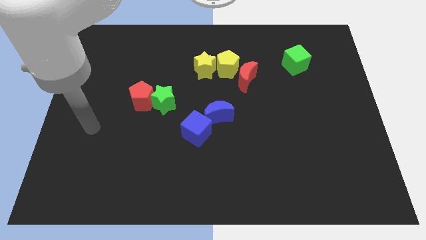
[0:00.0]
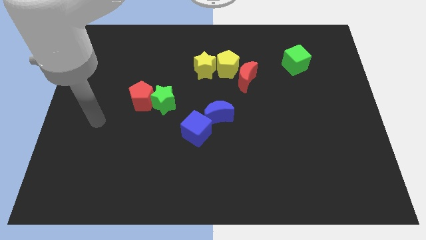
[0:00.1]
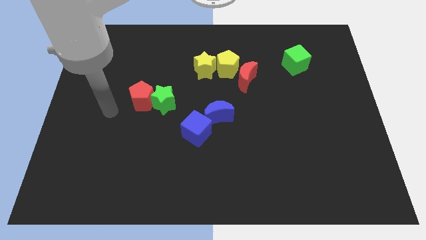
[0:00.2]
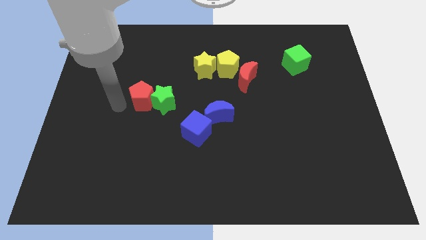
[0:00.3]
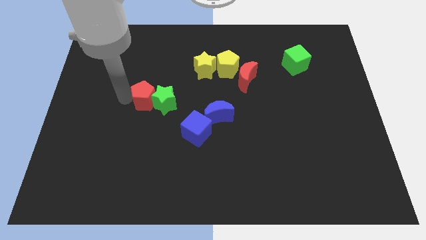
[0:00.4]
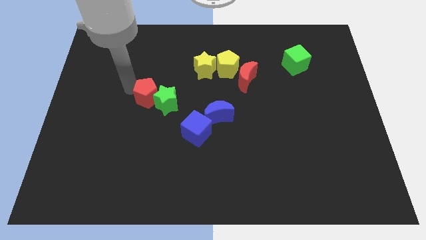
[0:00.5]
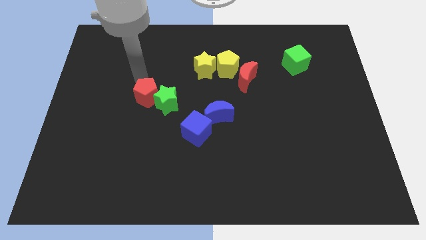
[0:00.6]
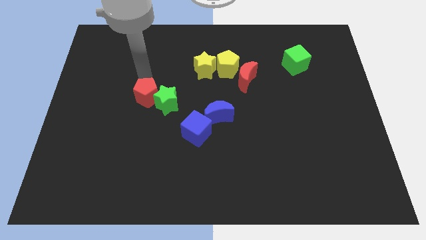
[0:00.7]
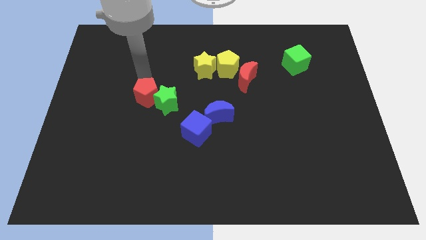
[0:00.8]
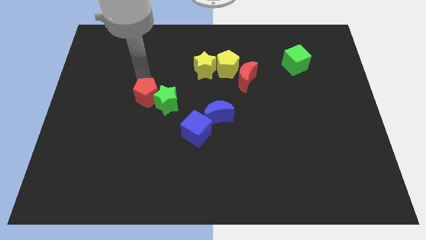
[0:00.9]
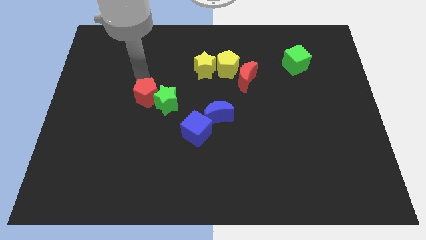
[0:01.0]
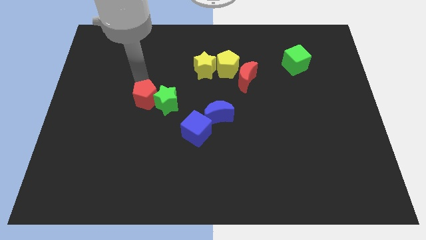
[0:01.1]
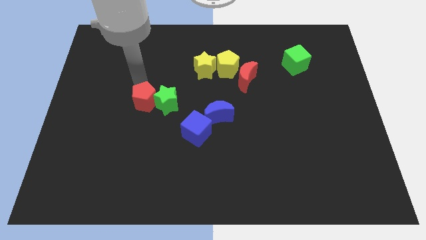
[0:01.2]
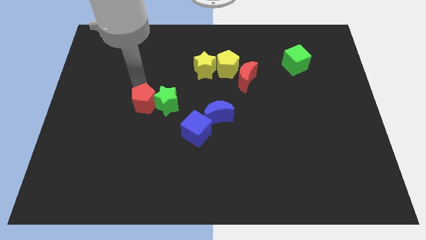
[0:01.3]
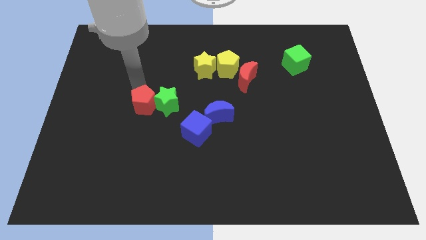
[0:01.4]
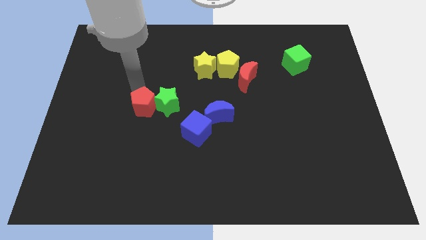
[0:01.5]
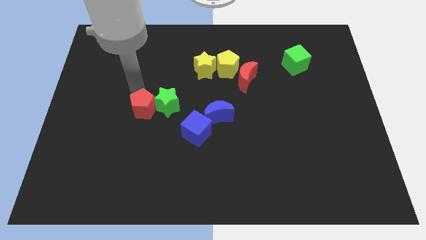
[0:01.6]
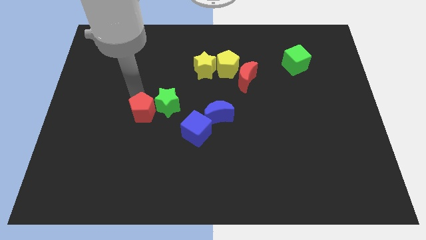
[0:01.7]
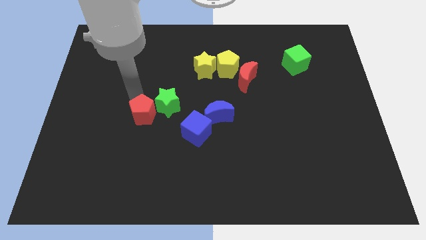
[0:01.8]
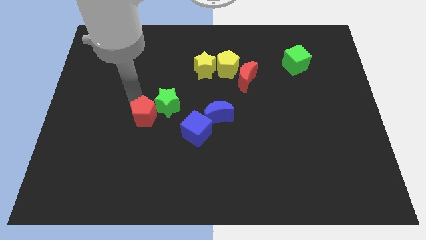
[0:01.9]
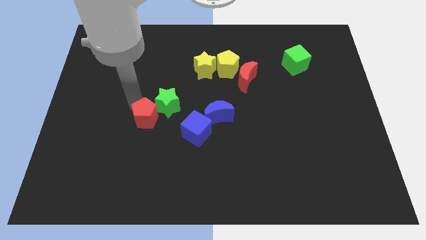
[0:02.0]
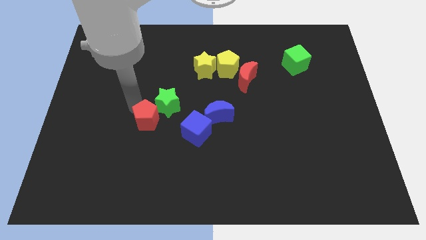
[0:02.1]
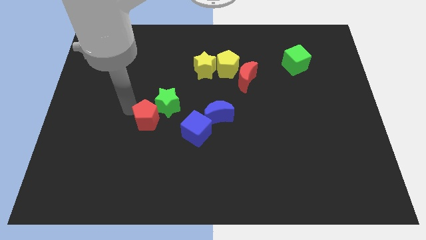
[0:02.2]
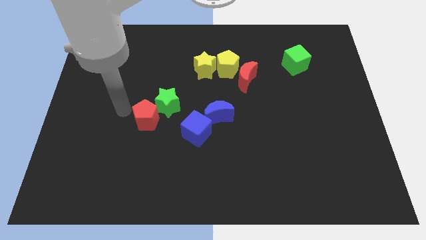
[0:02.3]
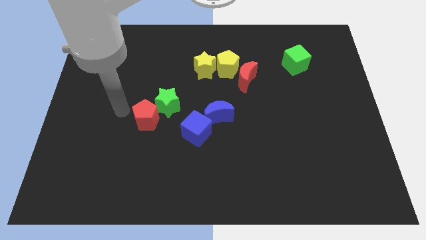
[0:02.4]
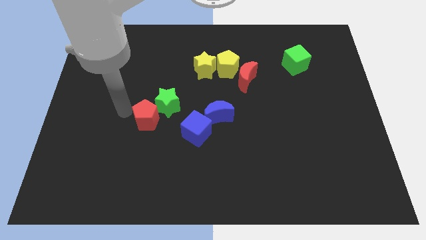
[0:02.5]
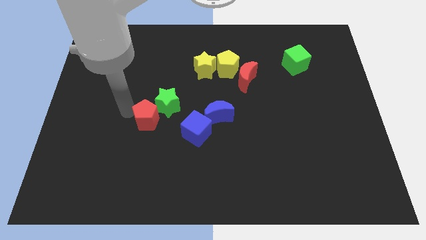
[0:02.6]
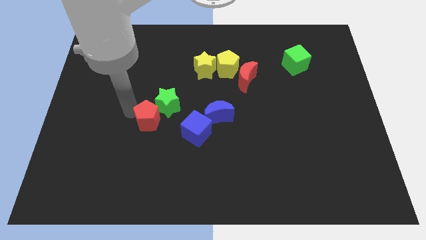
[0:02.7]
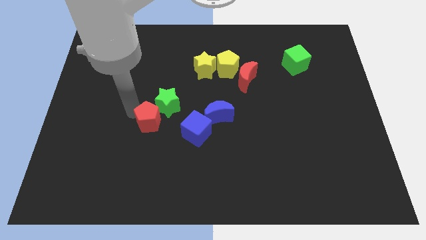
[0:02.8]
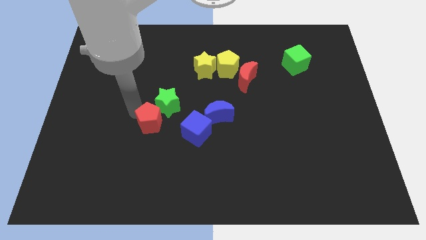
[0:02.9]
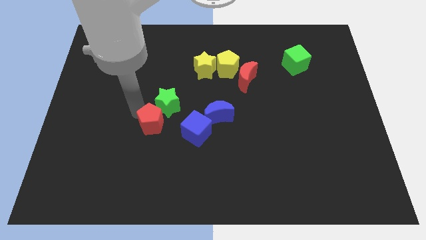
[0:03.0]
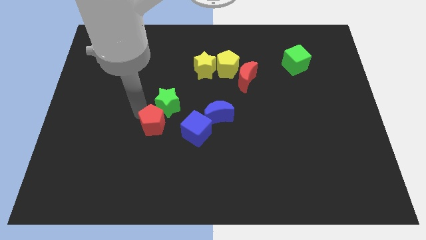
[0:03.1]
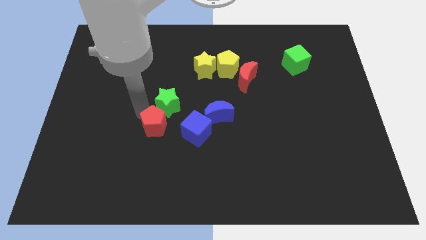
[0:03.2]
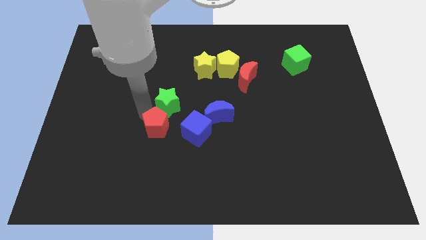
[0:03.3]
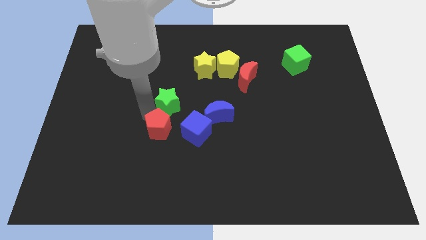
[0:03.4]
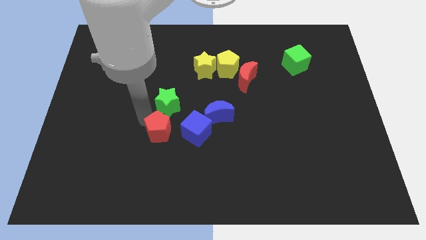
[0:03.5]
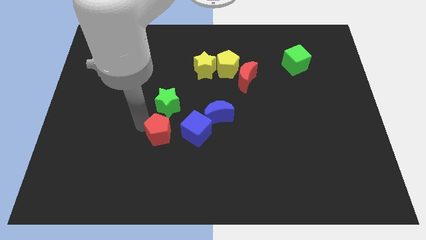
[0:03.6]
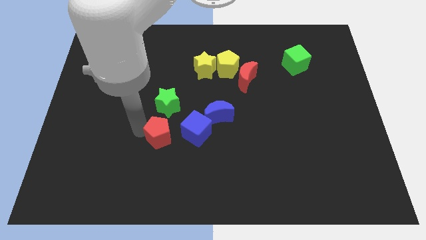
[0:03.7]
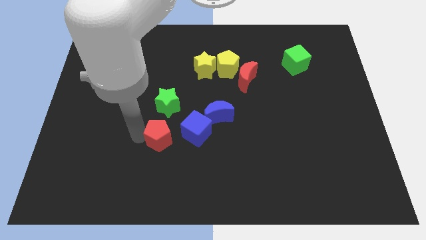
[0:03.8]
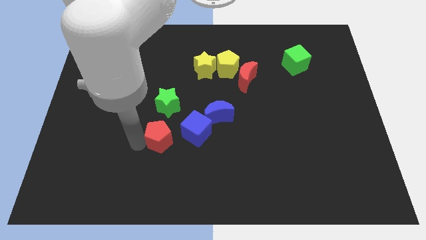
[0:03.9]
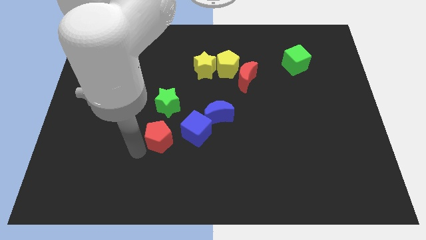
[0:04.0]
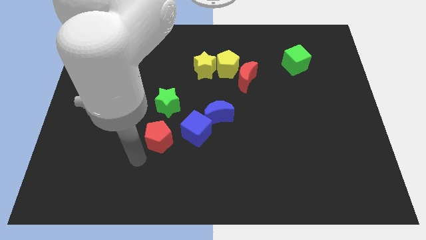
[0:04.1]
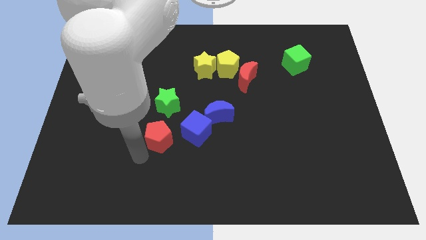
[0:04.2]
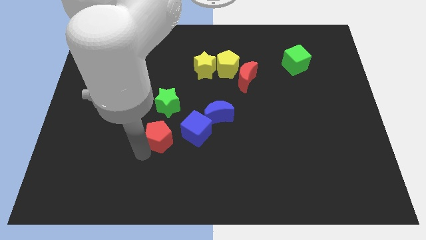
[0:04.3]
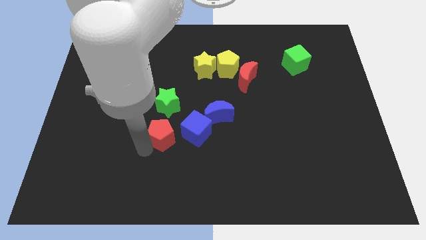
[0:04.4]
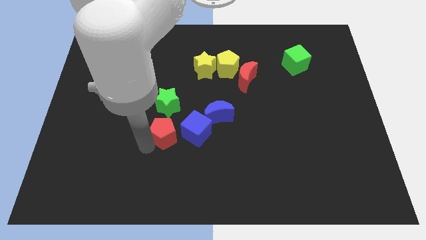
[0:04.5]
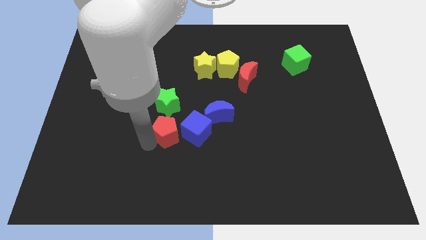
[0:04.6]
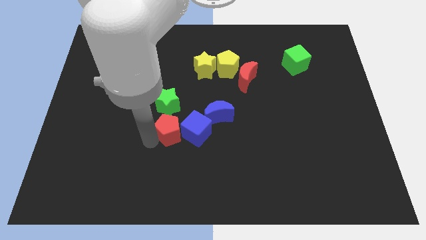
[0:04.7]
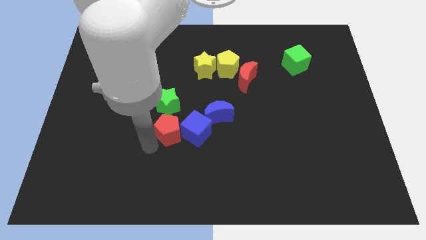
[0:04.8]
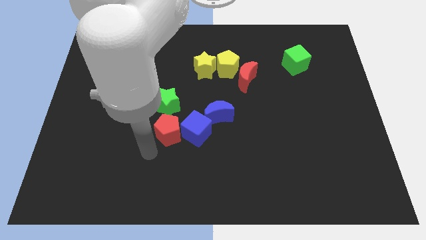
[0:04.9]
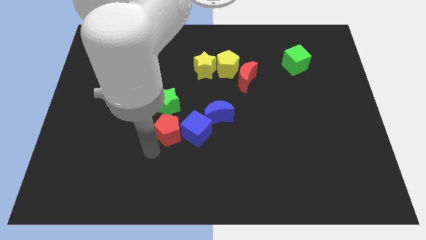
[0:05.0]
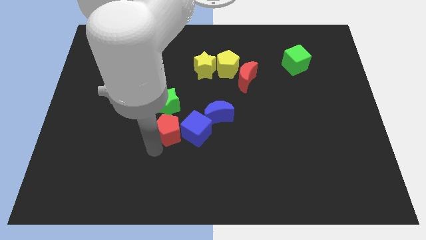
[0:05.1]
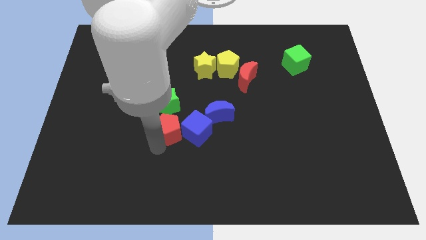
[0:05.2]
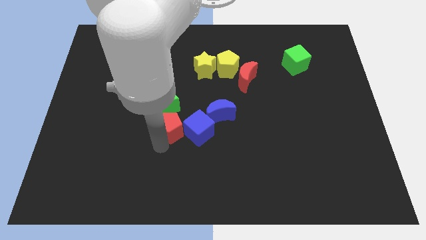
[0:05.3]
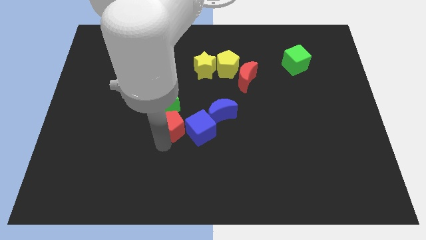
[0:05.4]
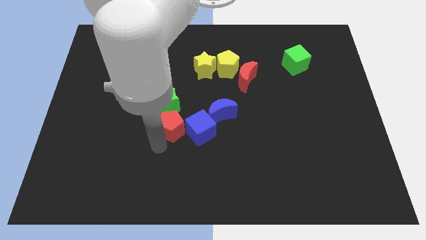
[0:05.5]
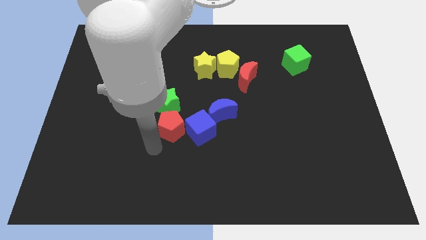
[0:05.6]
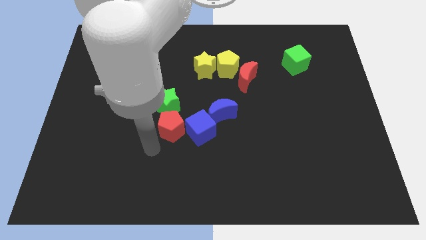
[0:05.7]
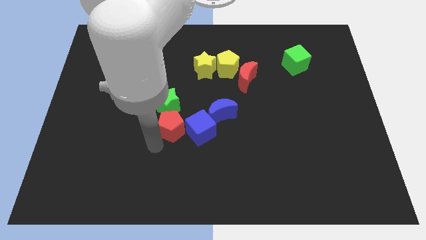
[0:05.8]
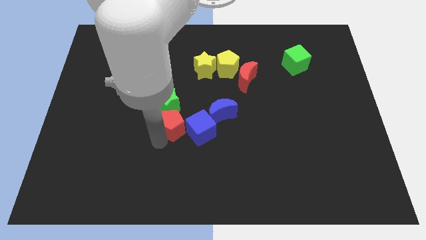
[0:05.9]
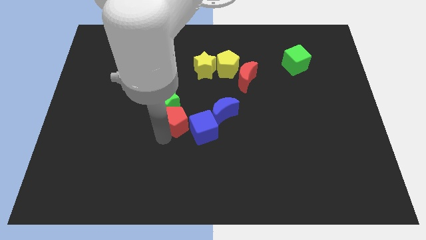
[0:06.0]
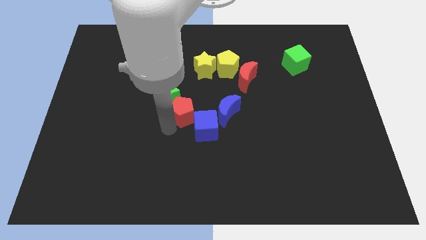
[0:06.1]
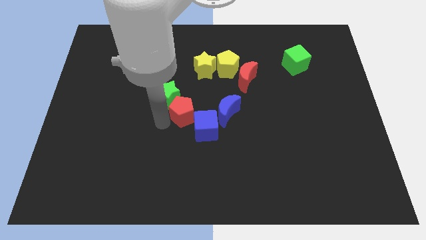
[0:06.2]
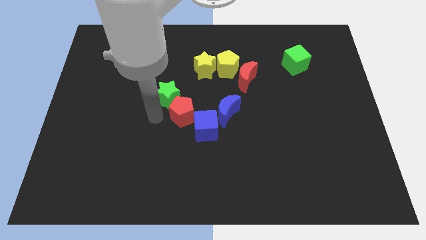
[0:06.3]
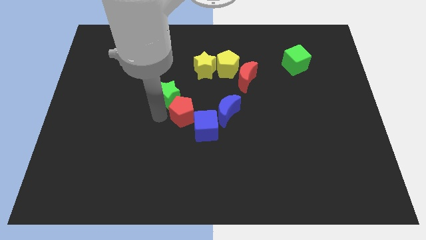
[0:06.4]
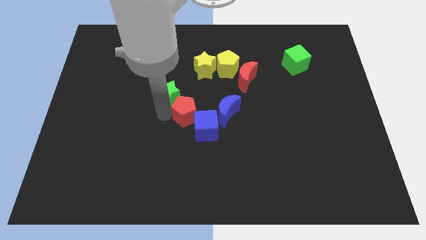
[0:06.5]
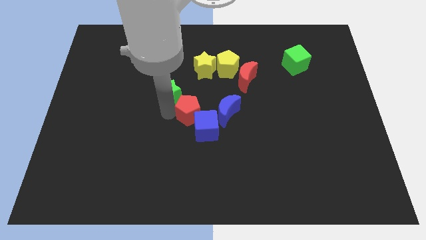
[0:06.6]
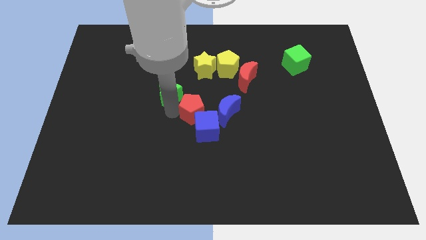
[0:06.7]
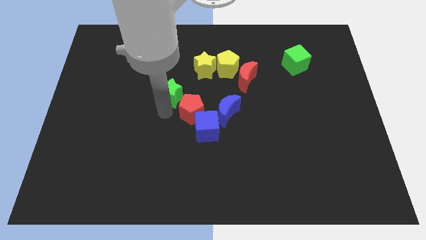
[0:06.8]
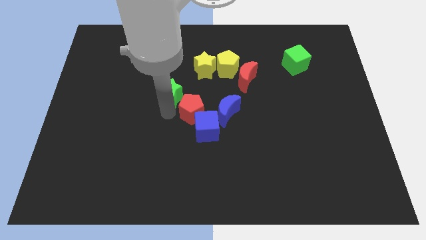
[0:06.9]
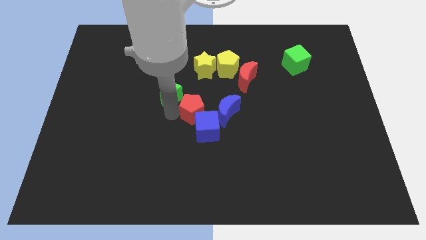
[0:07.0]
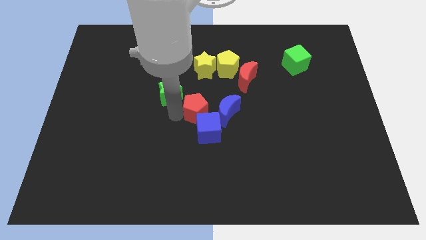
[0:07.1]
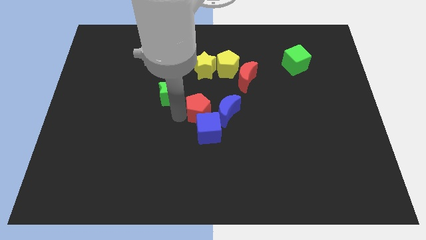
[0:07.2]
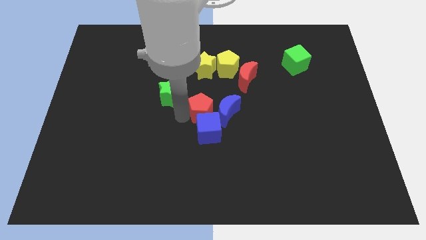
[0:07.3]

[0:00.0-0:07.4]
slide the red pentagon to the blue moon
